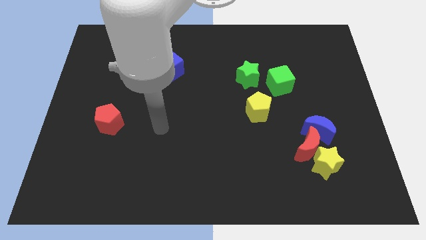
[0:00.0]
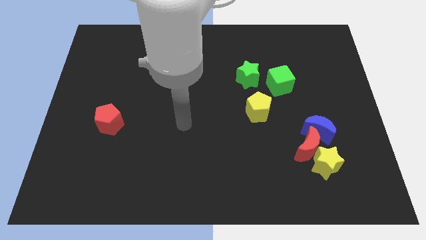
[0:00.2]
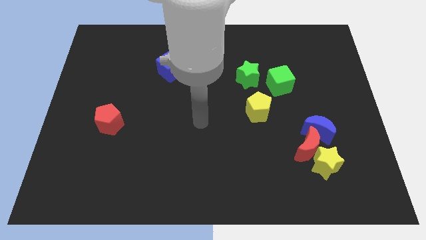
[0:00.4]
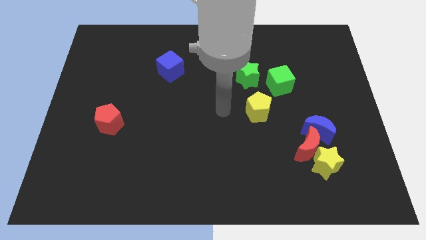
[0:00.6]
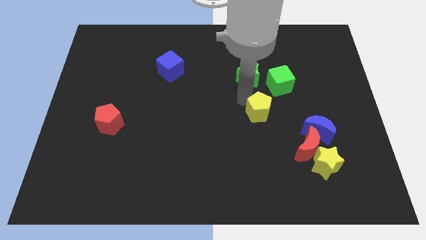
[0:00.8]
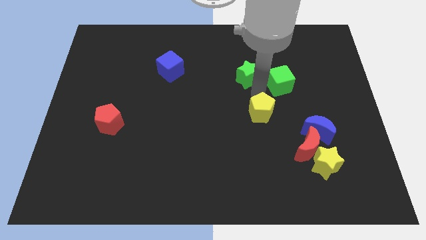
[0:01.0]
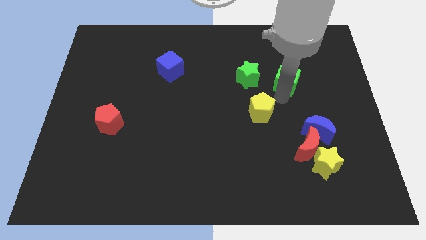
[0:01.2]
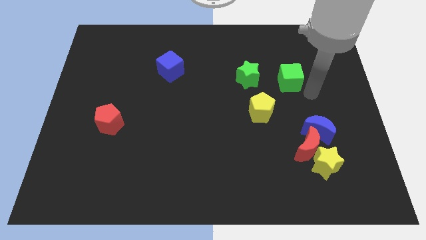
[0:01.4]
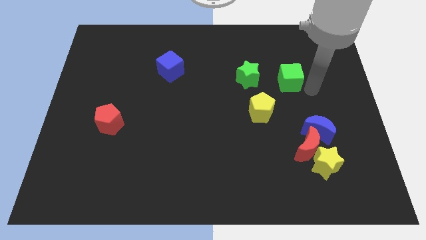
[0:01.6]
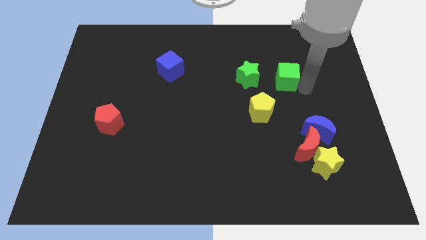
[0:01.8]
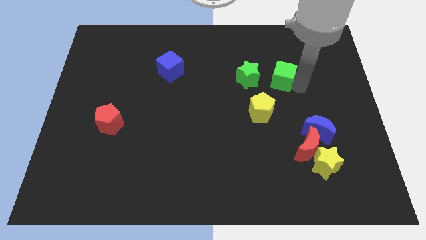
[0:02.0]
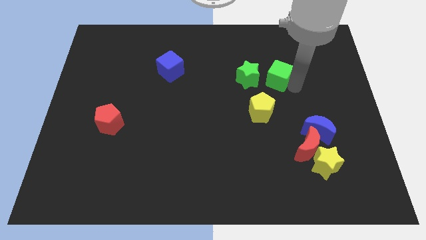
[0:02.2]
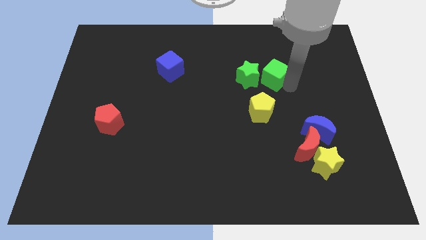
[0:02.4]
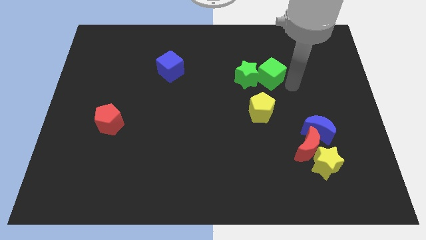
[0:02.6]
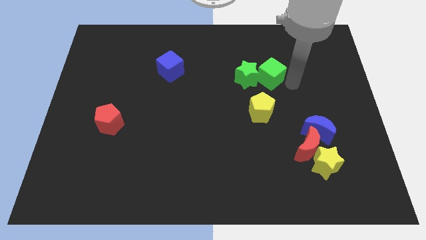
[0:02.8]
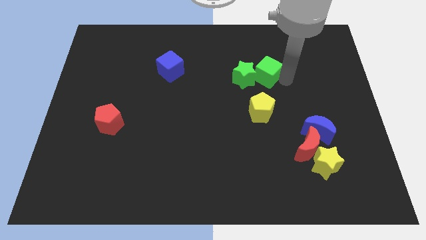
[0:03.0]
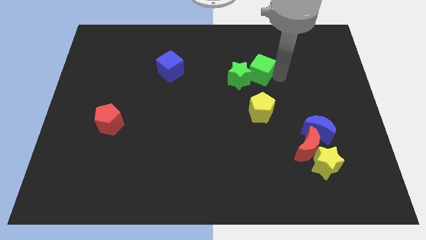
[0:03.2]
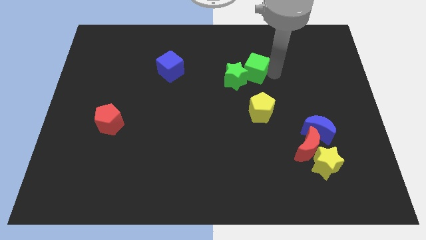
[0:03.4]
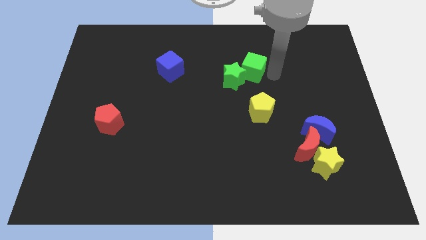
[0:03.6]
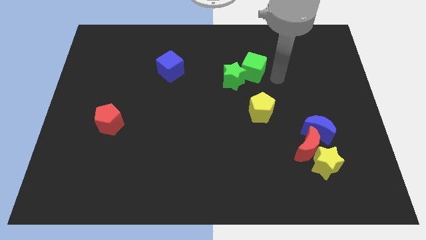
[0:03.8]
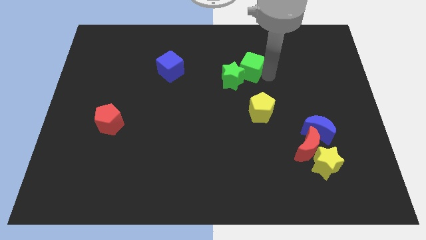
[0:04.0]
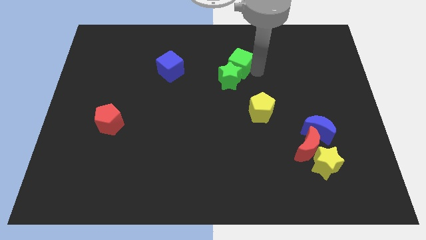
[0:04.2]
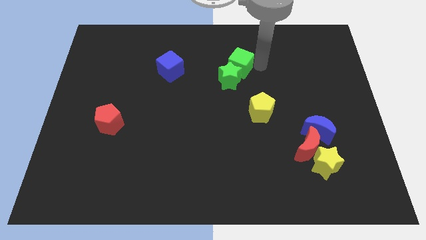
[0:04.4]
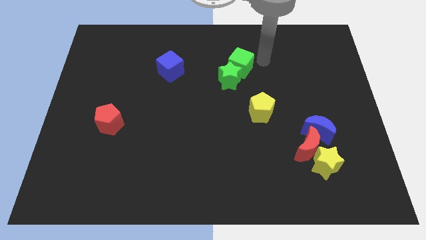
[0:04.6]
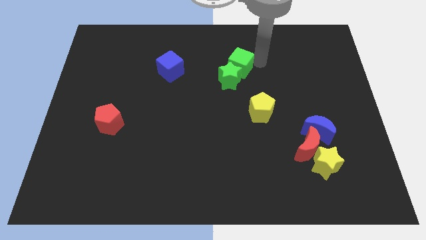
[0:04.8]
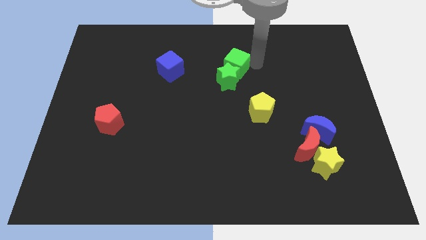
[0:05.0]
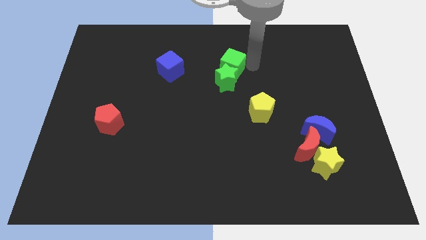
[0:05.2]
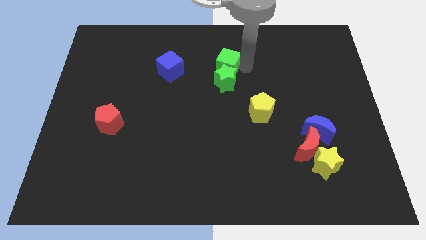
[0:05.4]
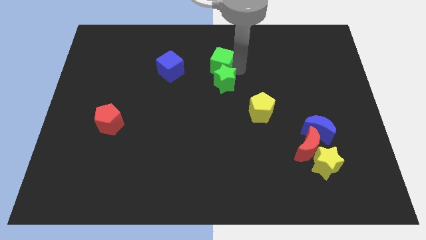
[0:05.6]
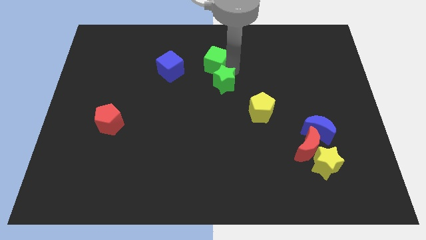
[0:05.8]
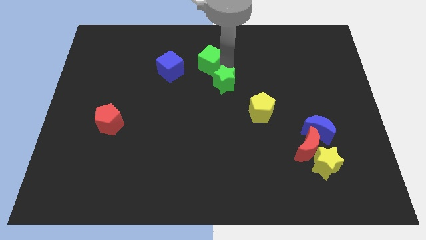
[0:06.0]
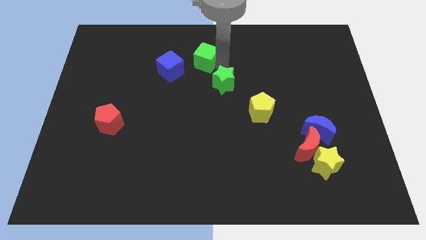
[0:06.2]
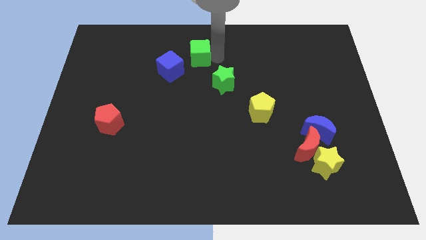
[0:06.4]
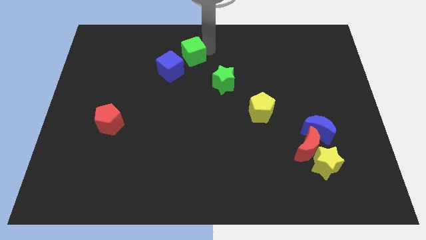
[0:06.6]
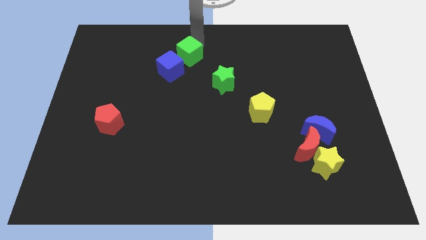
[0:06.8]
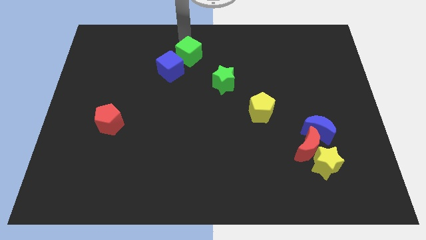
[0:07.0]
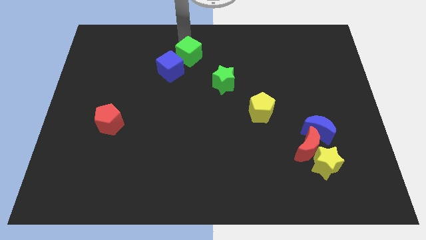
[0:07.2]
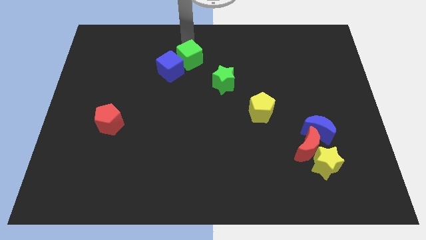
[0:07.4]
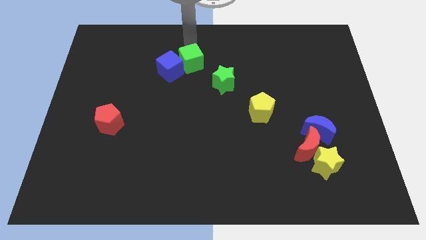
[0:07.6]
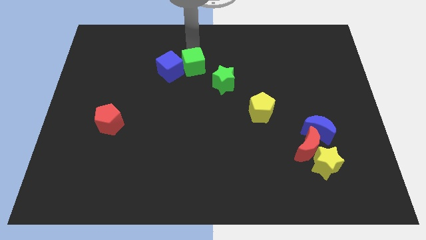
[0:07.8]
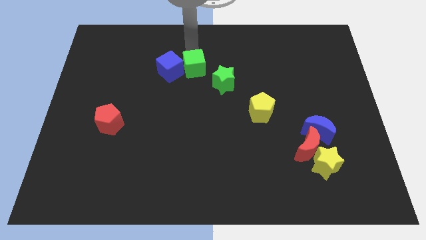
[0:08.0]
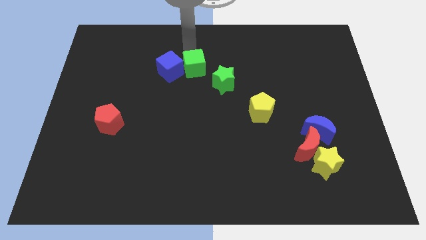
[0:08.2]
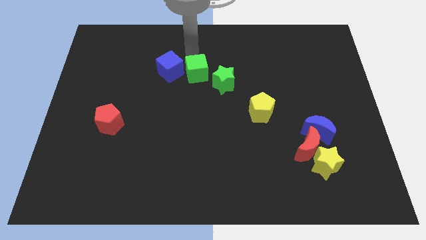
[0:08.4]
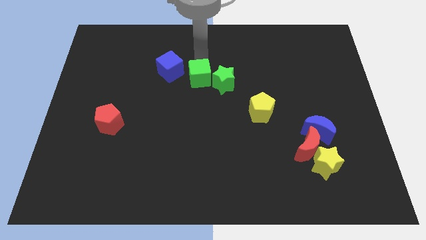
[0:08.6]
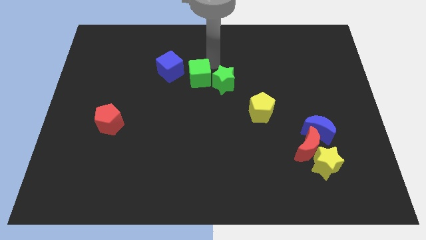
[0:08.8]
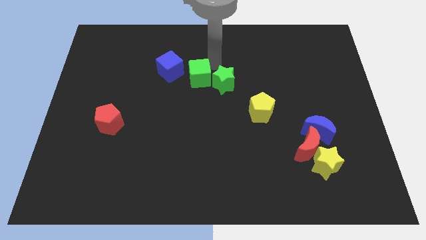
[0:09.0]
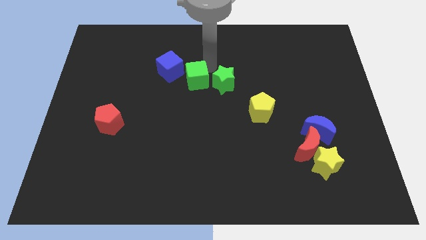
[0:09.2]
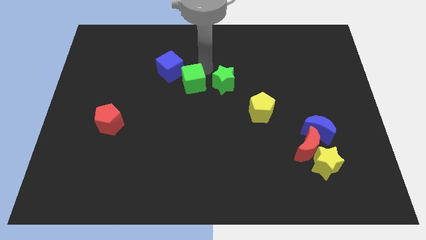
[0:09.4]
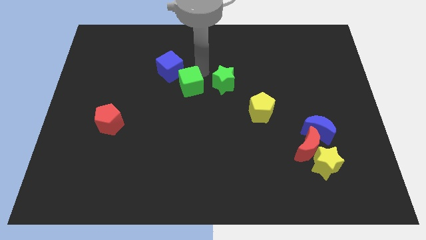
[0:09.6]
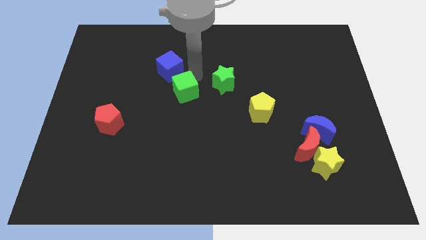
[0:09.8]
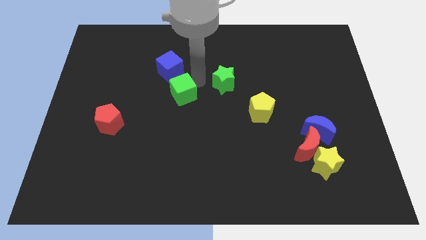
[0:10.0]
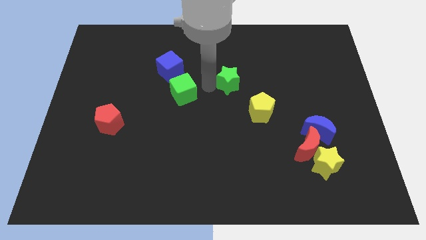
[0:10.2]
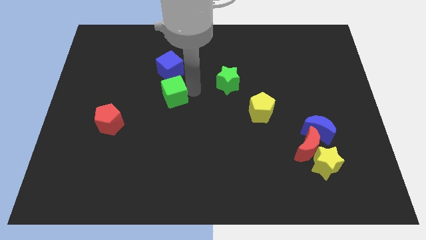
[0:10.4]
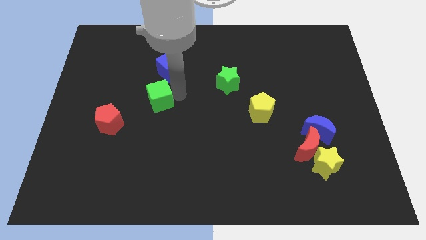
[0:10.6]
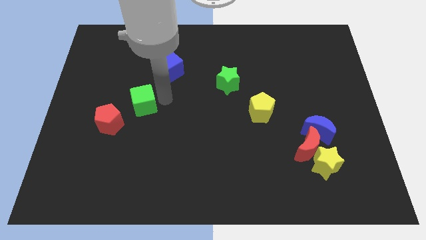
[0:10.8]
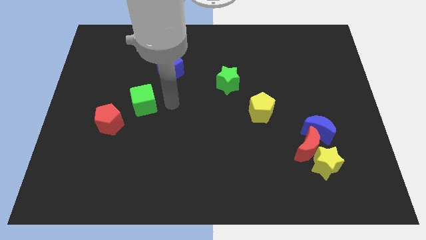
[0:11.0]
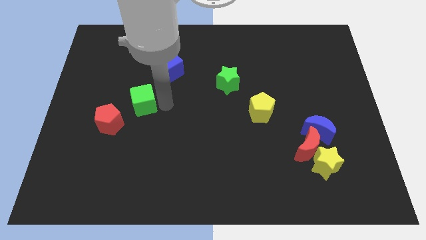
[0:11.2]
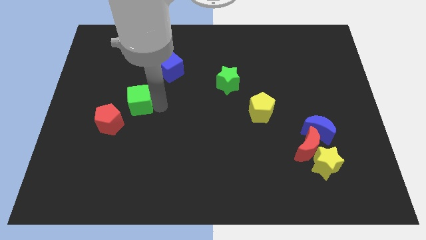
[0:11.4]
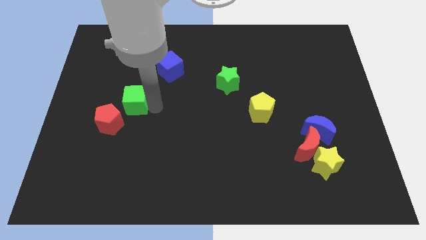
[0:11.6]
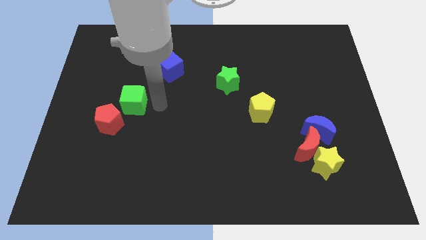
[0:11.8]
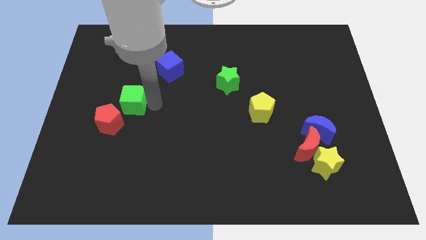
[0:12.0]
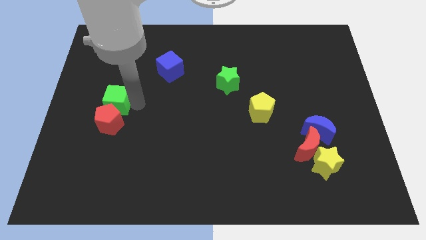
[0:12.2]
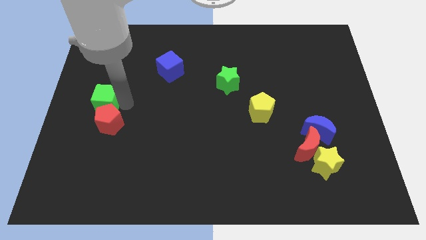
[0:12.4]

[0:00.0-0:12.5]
push the green cube to the left side of the board
